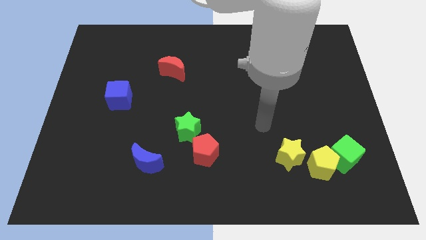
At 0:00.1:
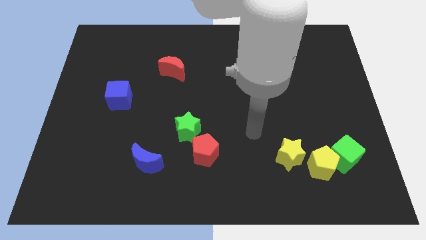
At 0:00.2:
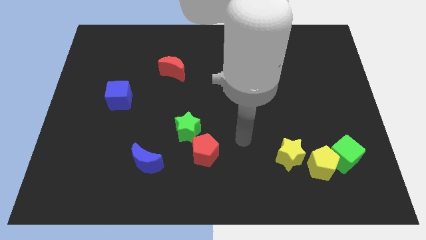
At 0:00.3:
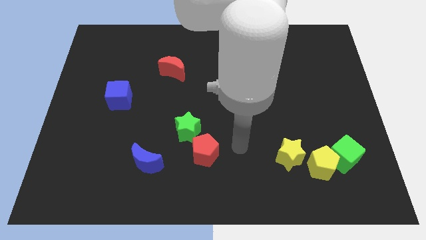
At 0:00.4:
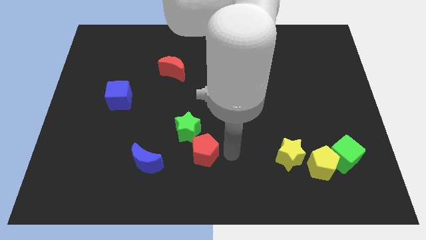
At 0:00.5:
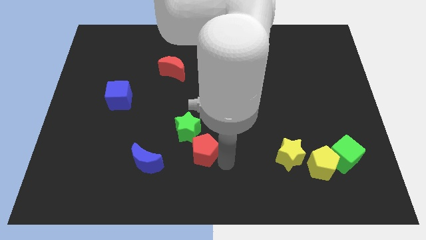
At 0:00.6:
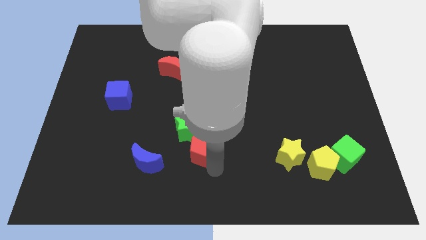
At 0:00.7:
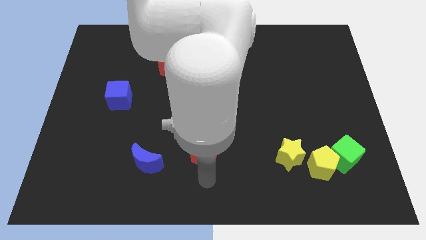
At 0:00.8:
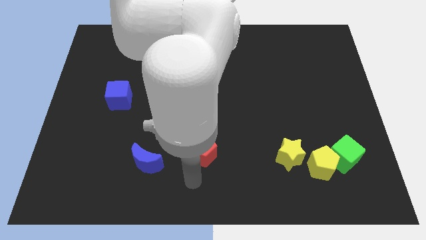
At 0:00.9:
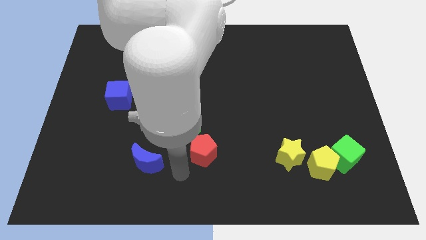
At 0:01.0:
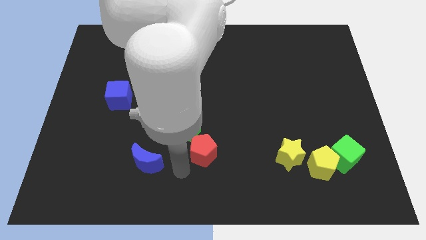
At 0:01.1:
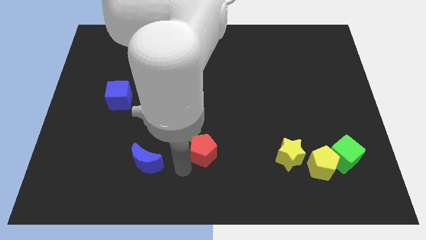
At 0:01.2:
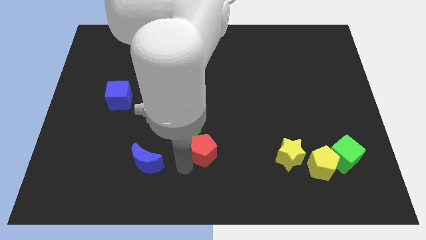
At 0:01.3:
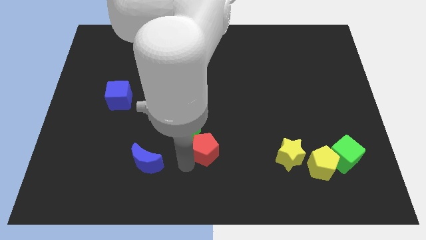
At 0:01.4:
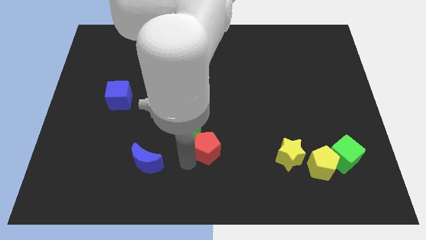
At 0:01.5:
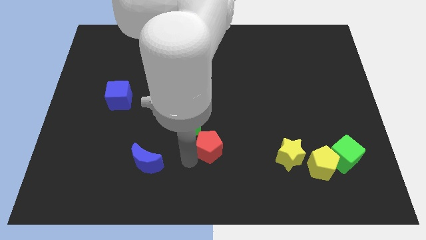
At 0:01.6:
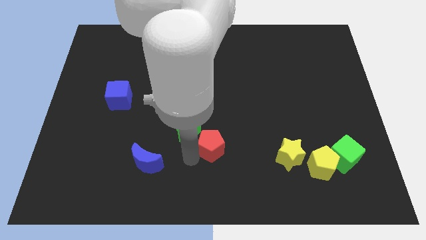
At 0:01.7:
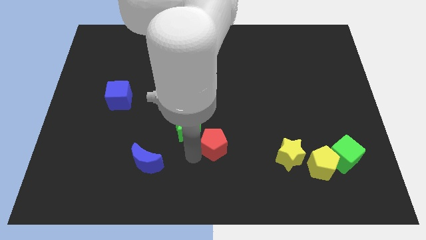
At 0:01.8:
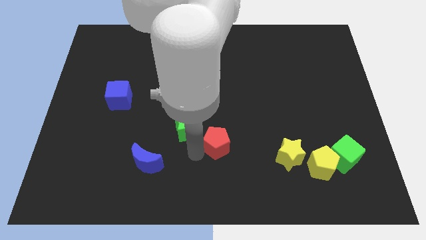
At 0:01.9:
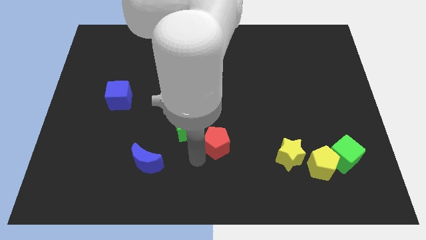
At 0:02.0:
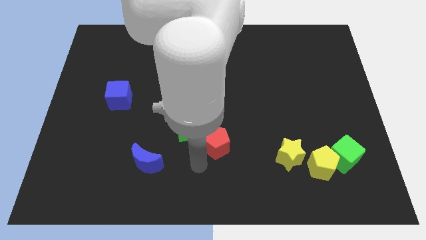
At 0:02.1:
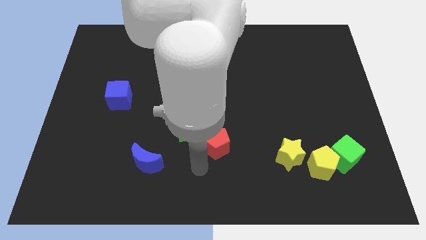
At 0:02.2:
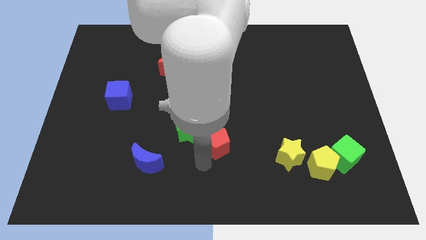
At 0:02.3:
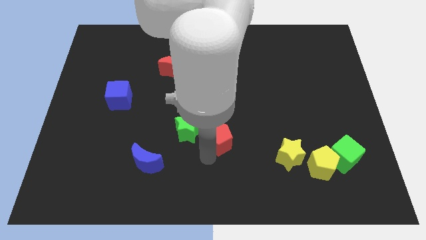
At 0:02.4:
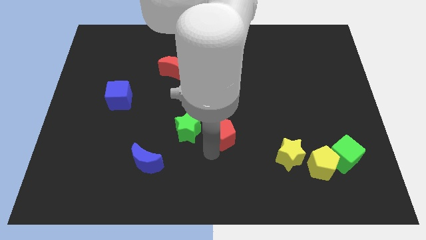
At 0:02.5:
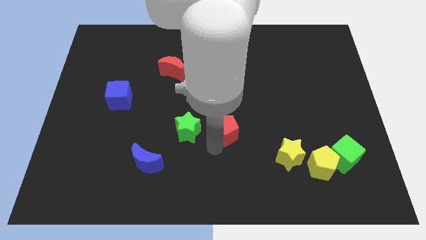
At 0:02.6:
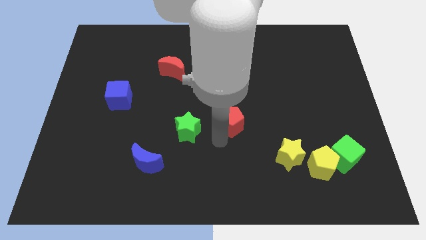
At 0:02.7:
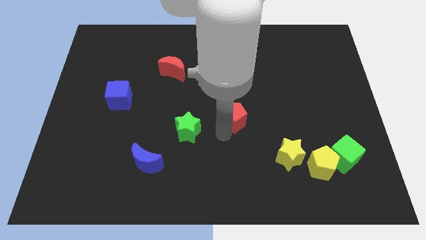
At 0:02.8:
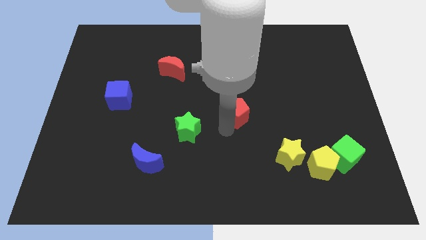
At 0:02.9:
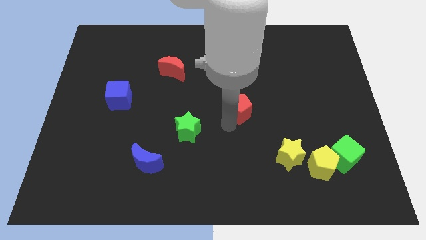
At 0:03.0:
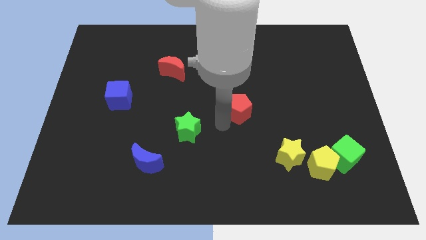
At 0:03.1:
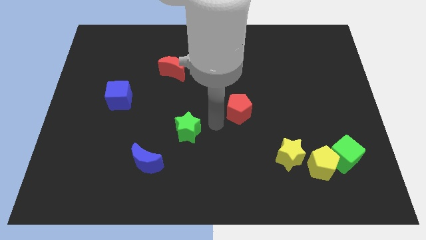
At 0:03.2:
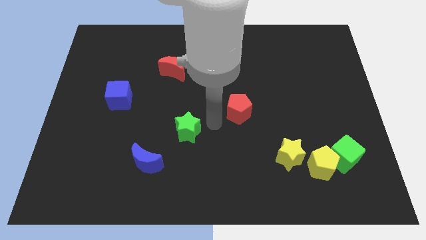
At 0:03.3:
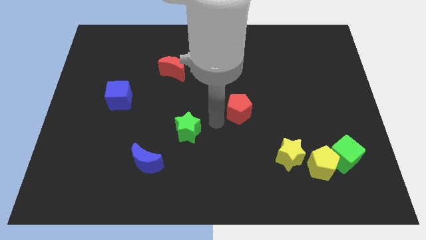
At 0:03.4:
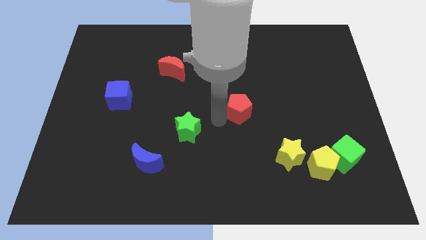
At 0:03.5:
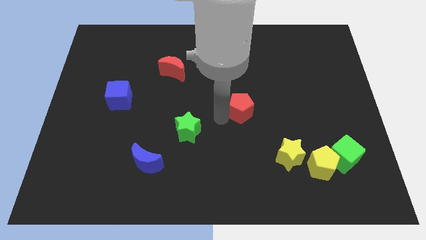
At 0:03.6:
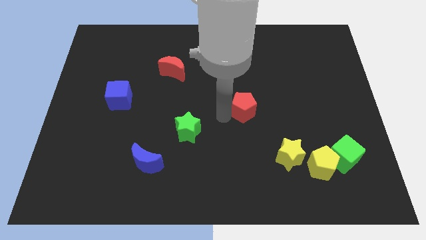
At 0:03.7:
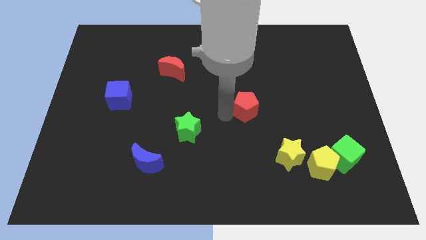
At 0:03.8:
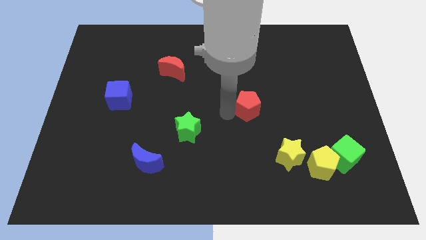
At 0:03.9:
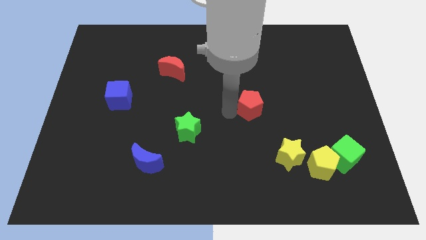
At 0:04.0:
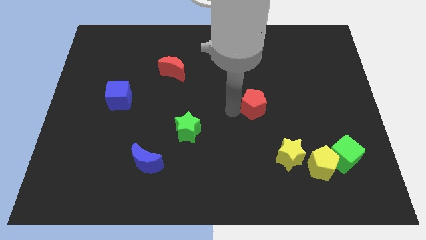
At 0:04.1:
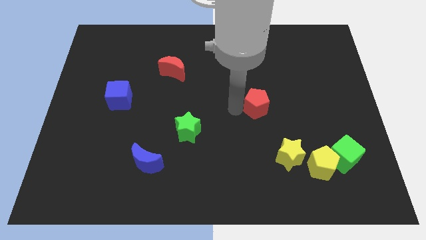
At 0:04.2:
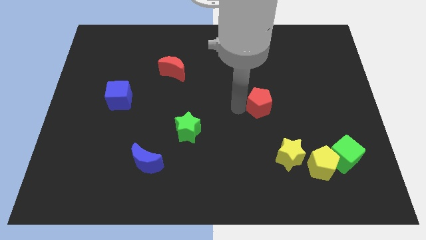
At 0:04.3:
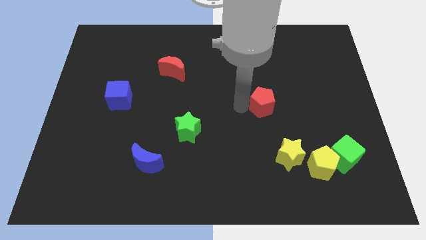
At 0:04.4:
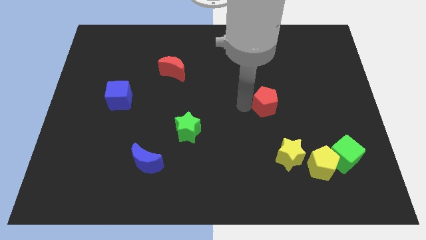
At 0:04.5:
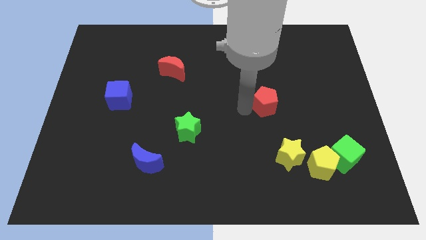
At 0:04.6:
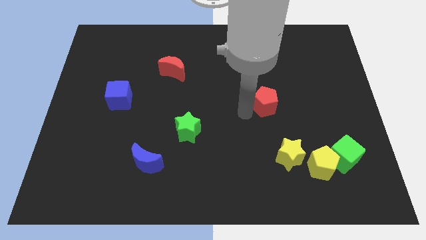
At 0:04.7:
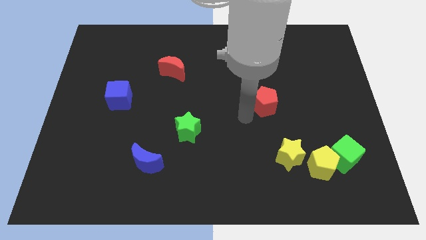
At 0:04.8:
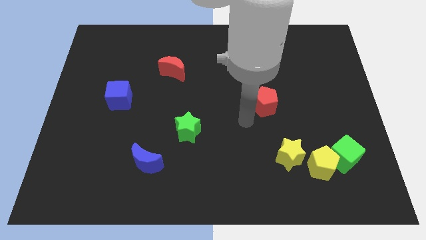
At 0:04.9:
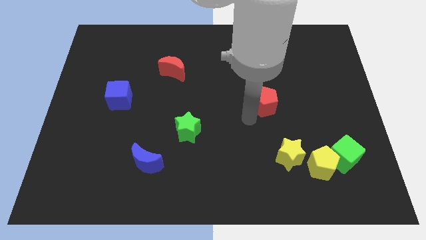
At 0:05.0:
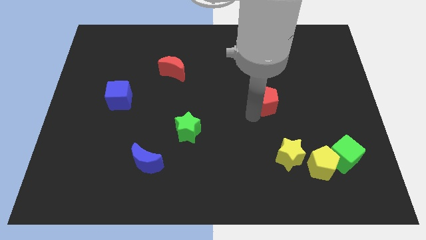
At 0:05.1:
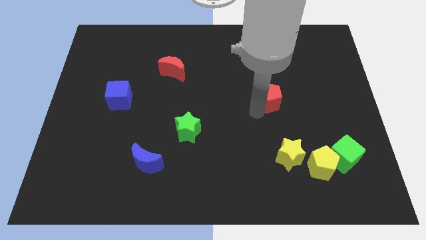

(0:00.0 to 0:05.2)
push the red pentagon up and right diagonally

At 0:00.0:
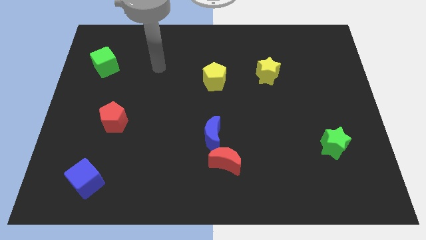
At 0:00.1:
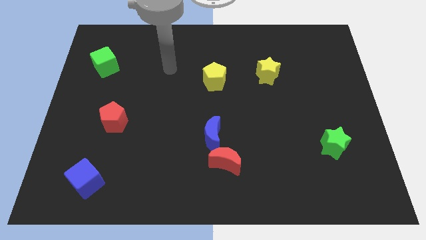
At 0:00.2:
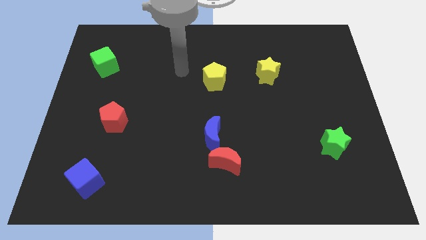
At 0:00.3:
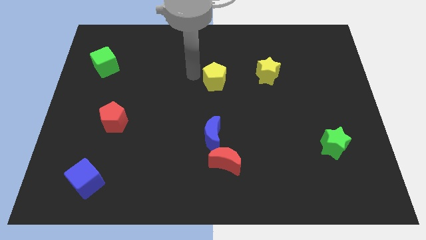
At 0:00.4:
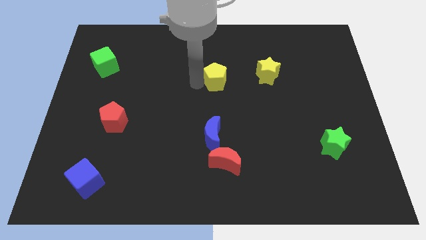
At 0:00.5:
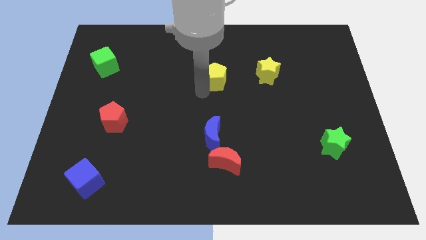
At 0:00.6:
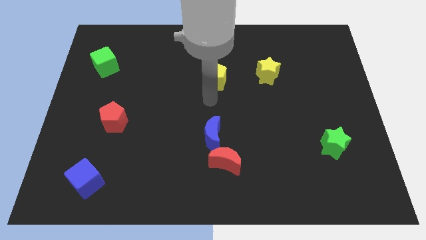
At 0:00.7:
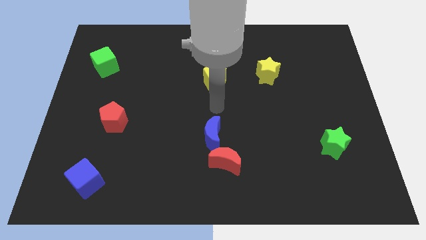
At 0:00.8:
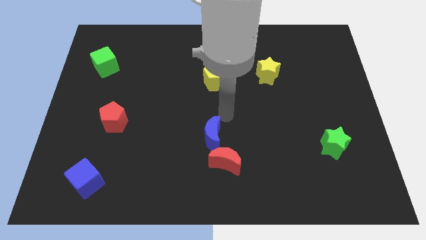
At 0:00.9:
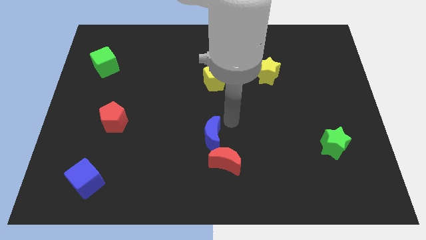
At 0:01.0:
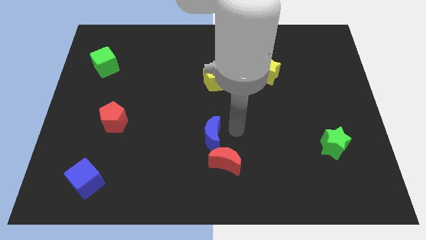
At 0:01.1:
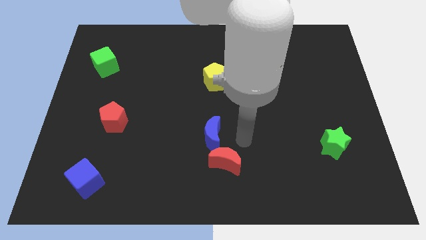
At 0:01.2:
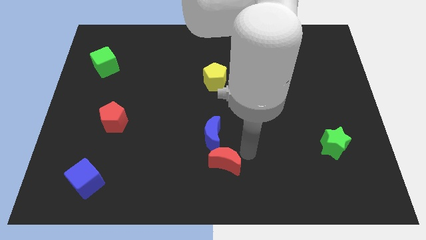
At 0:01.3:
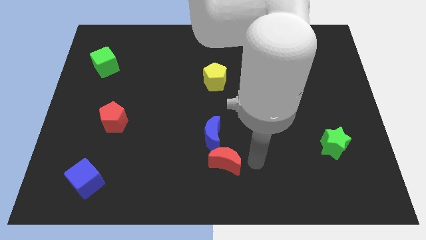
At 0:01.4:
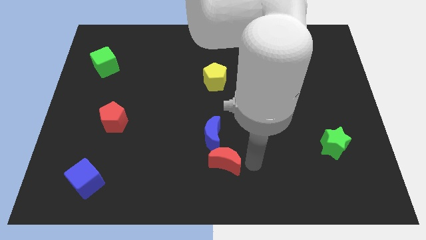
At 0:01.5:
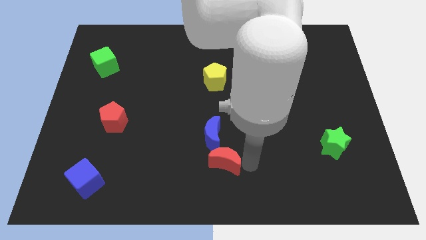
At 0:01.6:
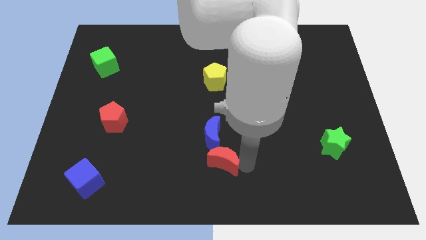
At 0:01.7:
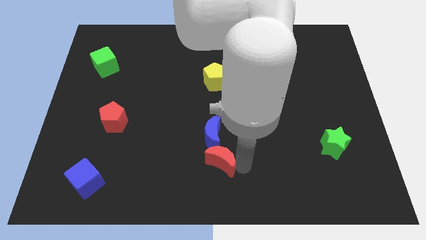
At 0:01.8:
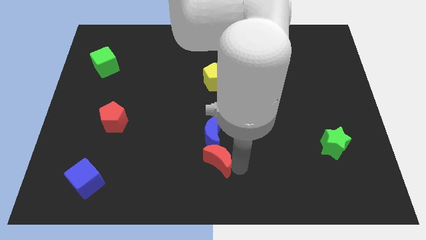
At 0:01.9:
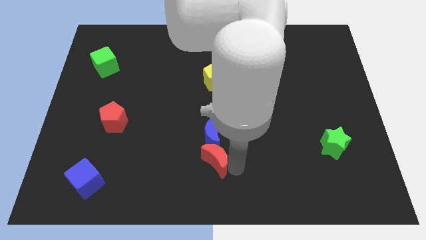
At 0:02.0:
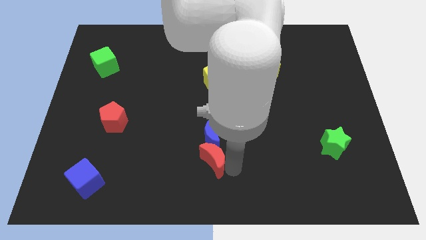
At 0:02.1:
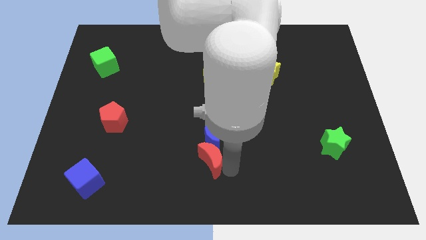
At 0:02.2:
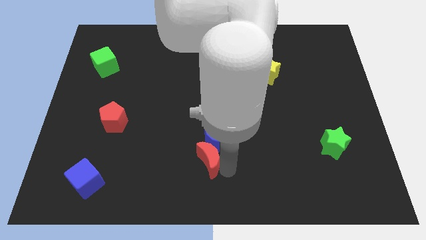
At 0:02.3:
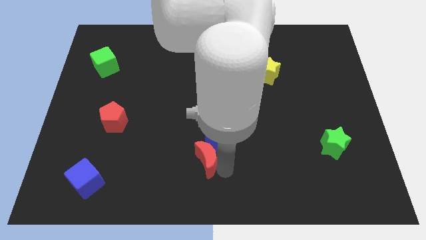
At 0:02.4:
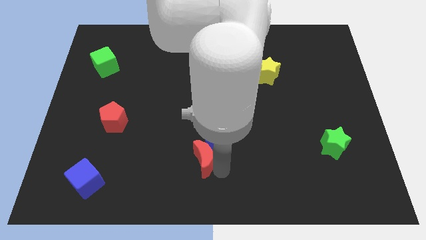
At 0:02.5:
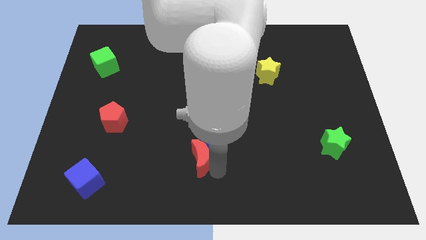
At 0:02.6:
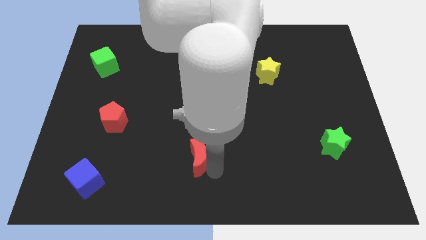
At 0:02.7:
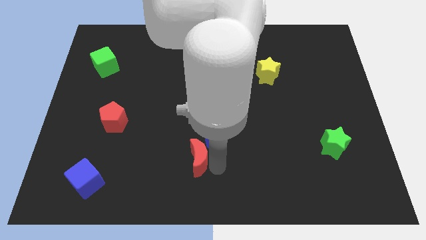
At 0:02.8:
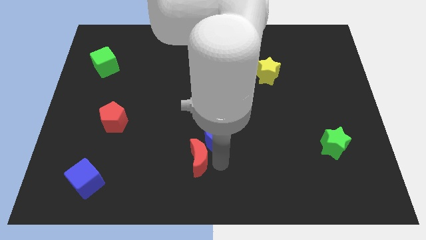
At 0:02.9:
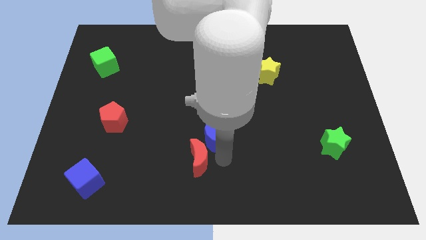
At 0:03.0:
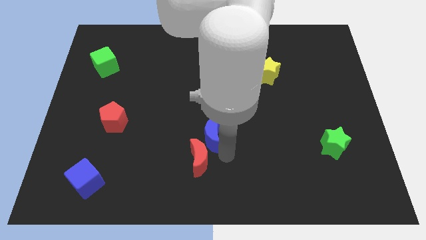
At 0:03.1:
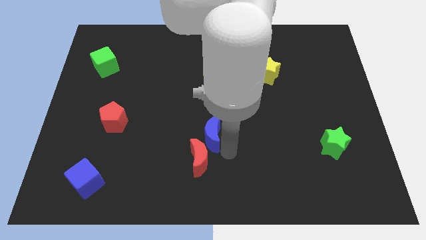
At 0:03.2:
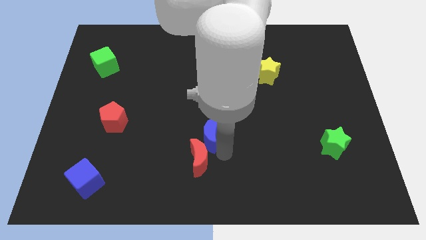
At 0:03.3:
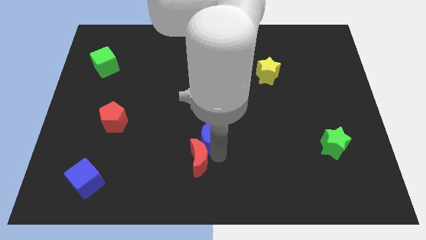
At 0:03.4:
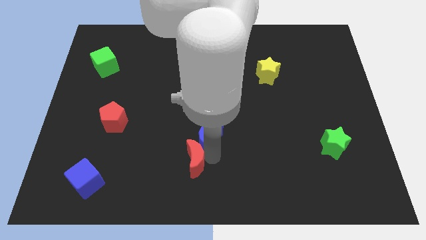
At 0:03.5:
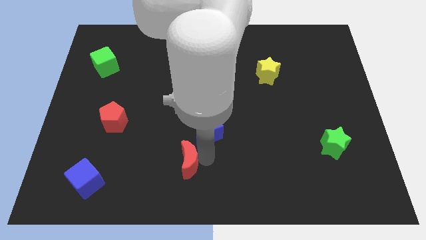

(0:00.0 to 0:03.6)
slightly push the red moon to the left
